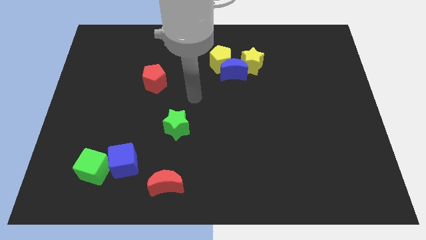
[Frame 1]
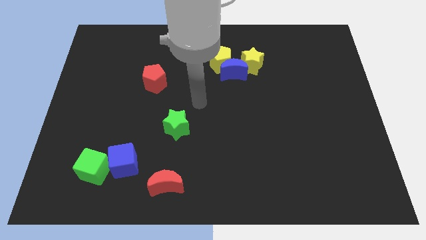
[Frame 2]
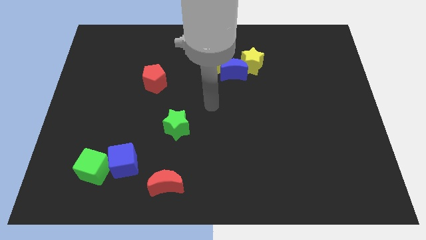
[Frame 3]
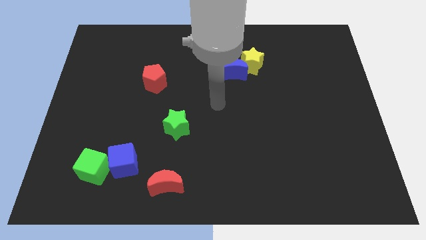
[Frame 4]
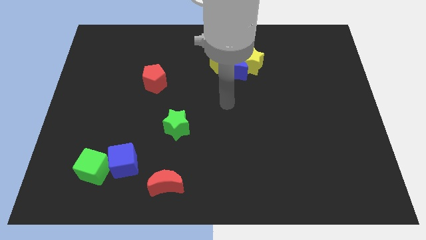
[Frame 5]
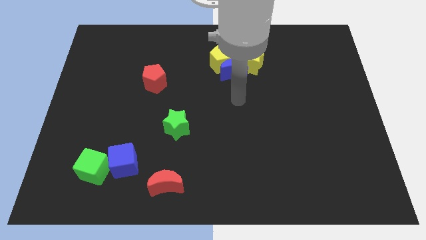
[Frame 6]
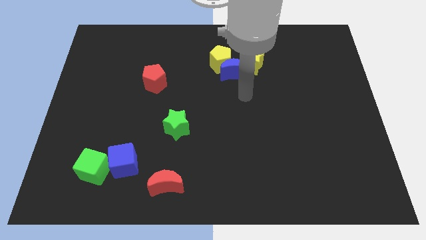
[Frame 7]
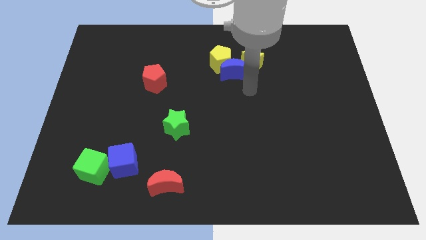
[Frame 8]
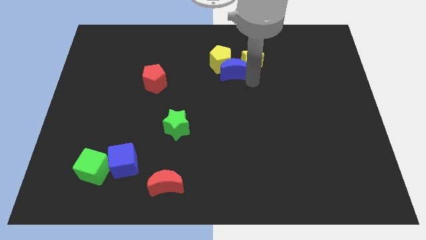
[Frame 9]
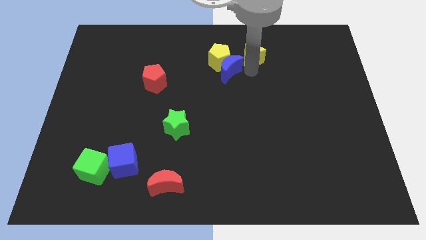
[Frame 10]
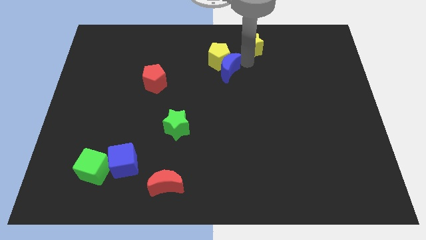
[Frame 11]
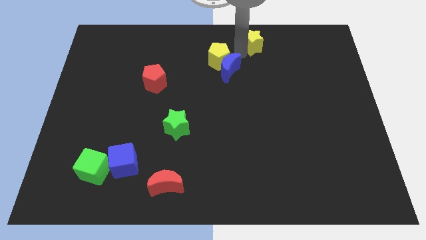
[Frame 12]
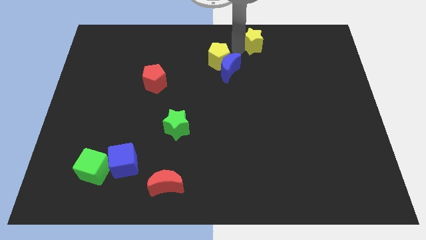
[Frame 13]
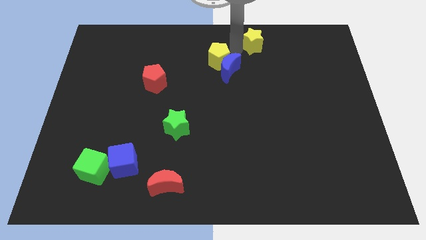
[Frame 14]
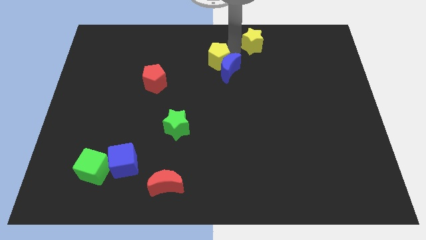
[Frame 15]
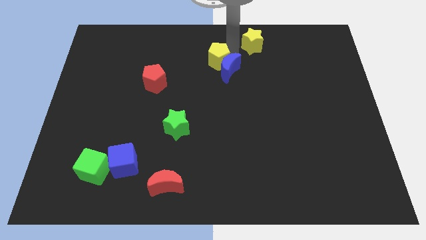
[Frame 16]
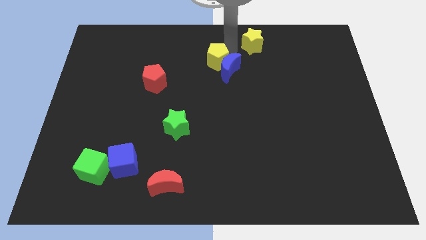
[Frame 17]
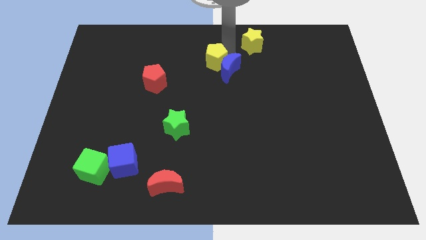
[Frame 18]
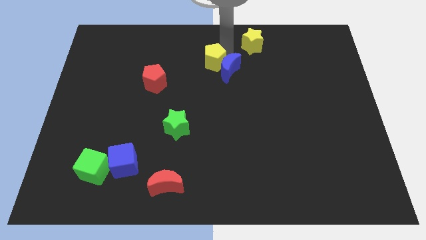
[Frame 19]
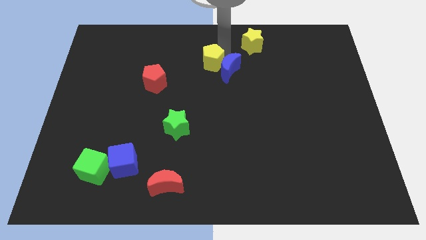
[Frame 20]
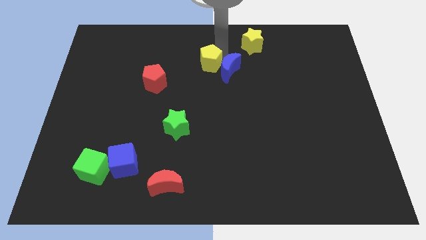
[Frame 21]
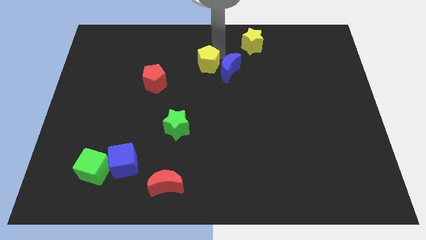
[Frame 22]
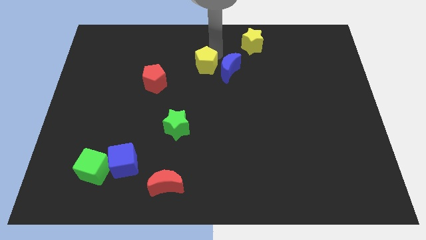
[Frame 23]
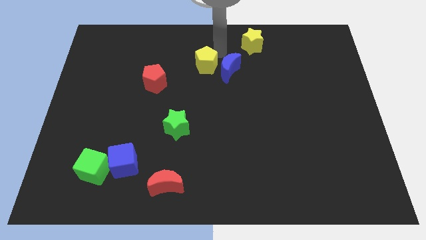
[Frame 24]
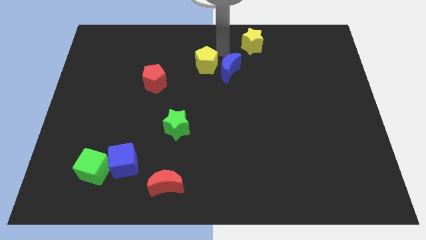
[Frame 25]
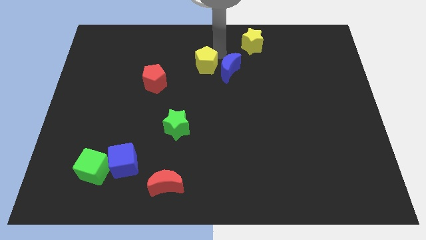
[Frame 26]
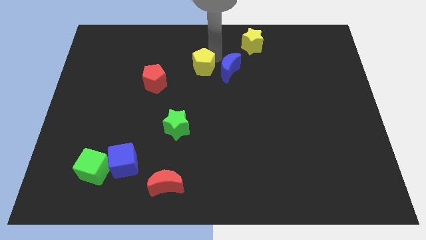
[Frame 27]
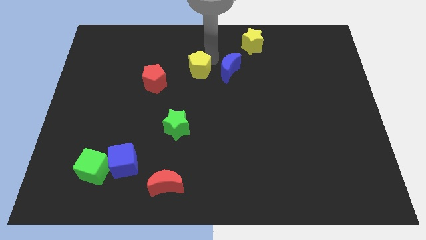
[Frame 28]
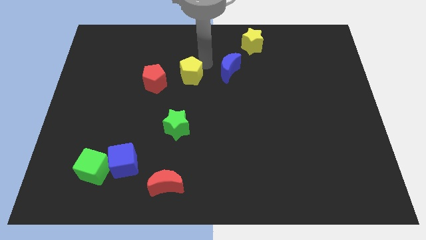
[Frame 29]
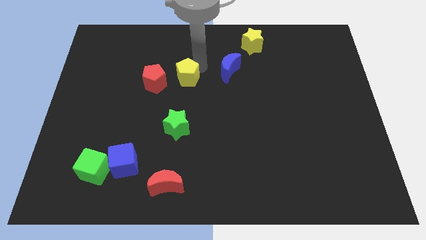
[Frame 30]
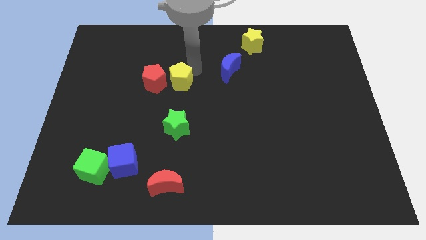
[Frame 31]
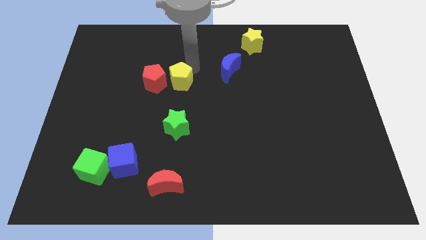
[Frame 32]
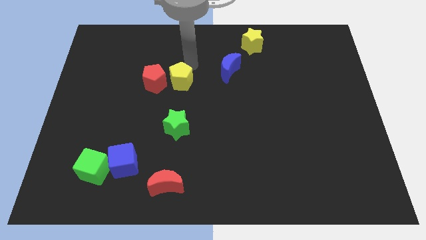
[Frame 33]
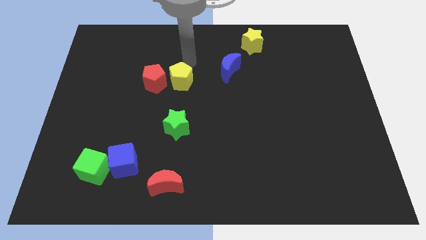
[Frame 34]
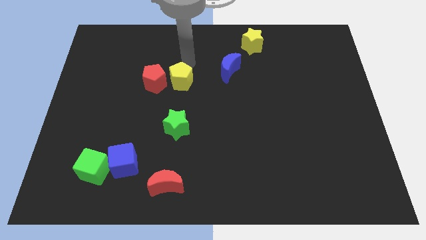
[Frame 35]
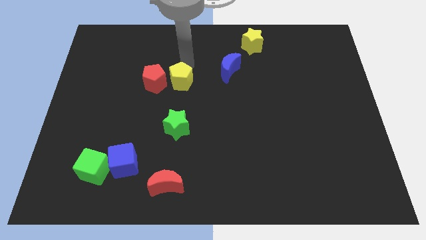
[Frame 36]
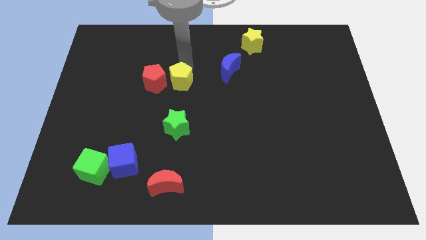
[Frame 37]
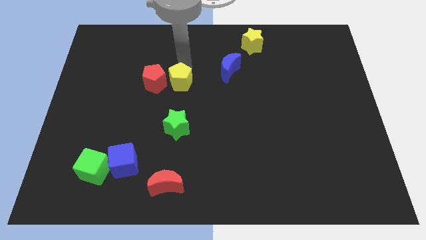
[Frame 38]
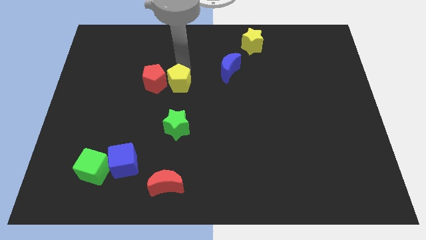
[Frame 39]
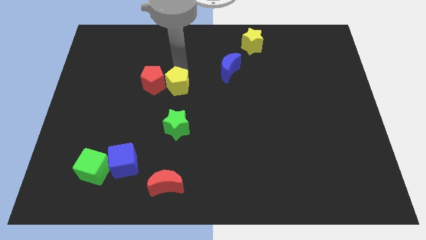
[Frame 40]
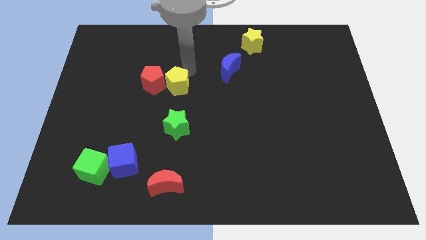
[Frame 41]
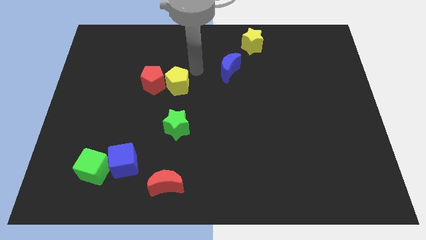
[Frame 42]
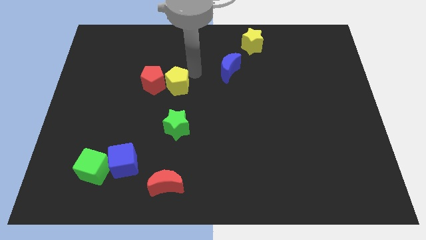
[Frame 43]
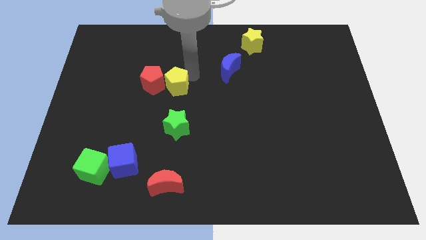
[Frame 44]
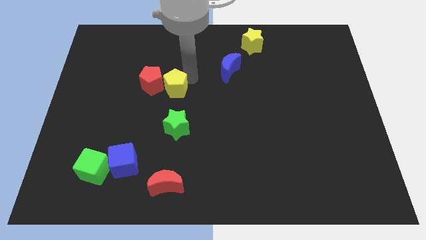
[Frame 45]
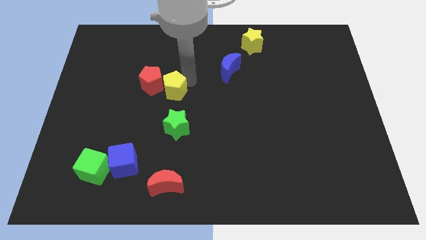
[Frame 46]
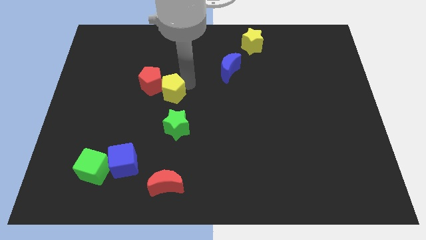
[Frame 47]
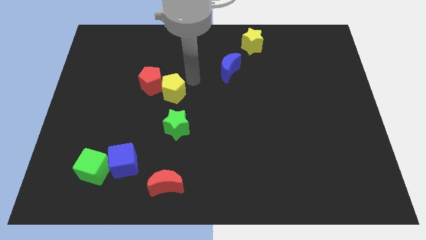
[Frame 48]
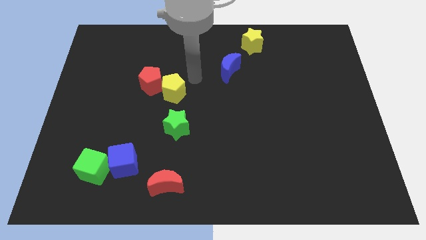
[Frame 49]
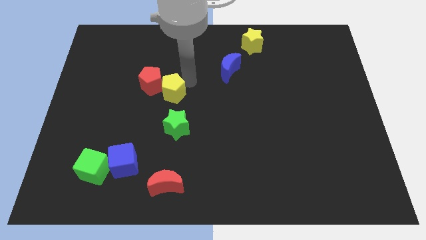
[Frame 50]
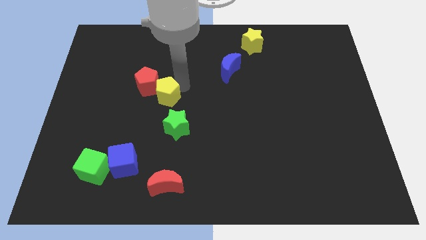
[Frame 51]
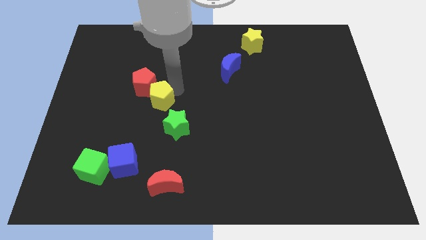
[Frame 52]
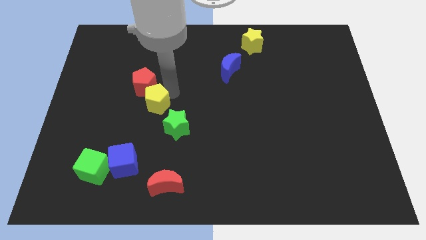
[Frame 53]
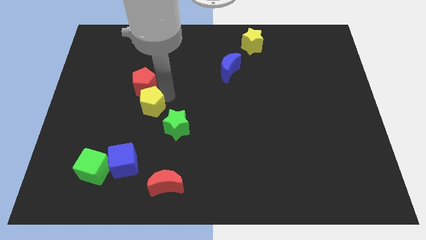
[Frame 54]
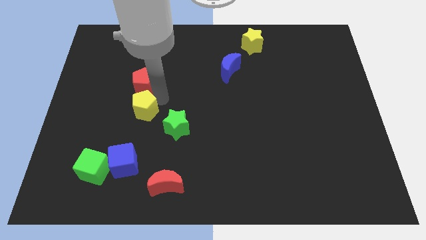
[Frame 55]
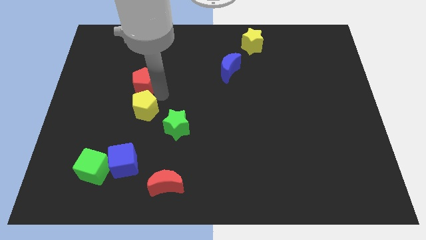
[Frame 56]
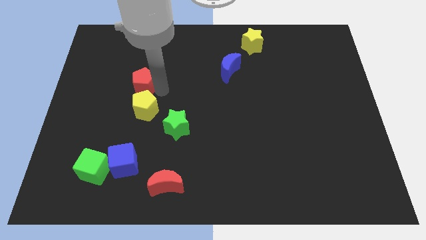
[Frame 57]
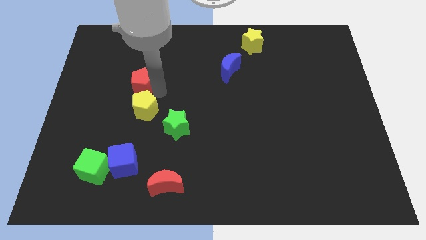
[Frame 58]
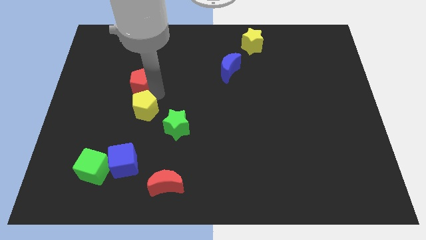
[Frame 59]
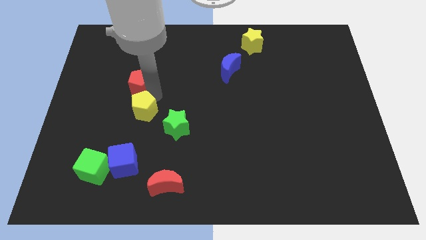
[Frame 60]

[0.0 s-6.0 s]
move the yellow pentagon left of the green star

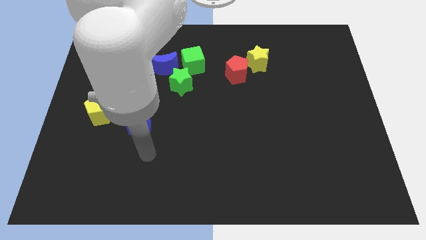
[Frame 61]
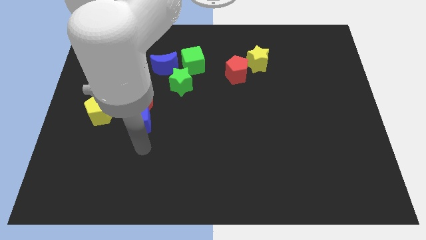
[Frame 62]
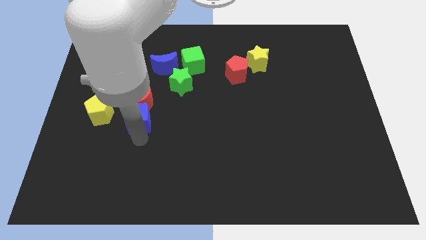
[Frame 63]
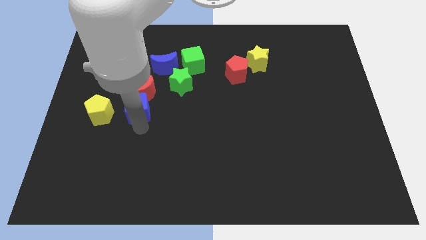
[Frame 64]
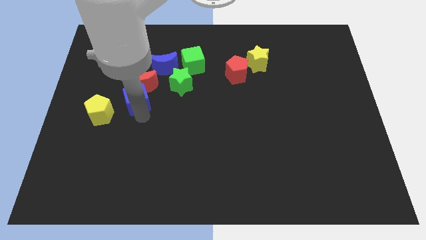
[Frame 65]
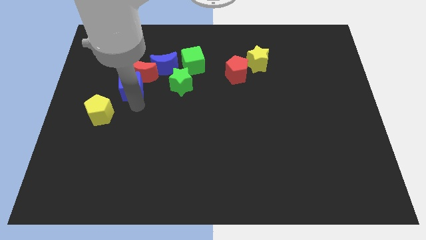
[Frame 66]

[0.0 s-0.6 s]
push the red moon diagonally up and to the left of the green star
